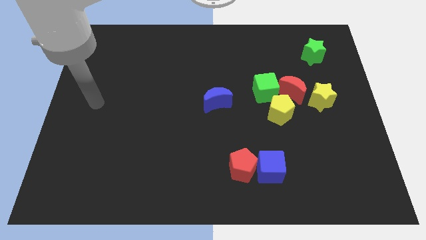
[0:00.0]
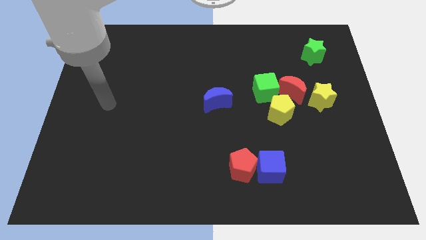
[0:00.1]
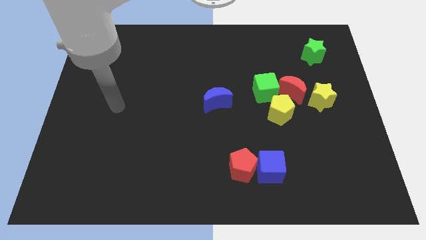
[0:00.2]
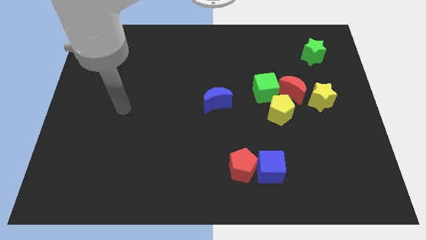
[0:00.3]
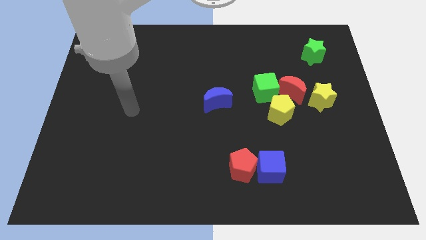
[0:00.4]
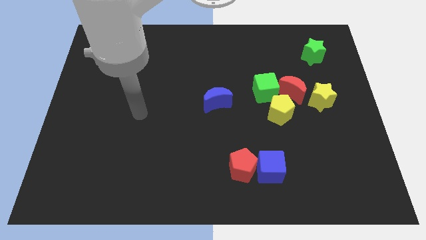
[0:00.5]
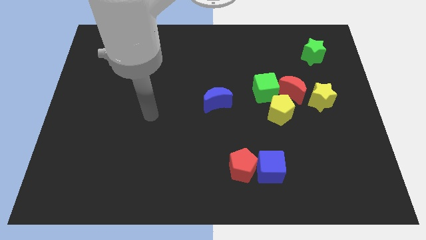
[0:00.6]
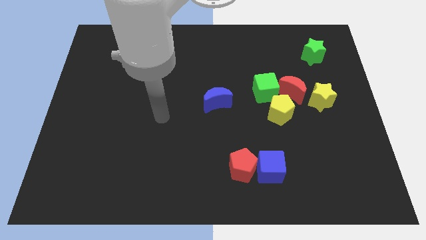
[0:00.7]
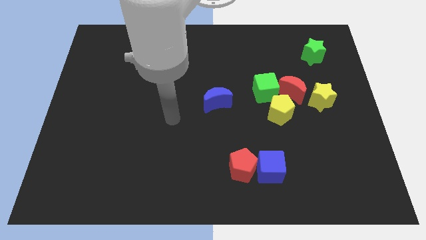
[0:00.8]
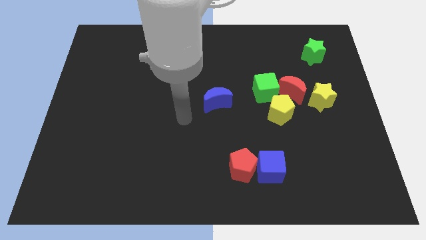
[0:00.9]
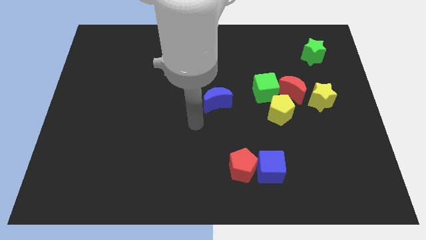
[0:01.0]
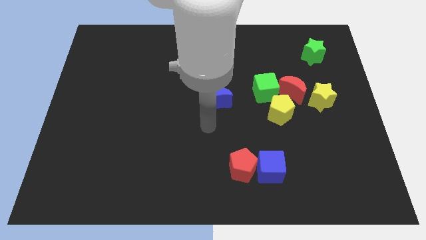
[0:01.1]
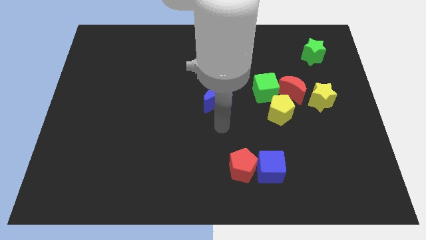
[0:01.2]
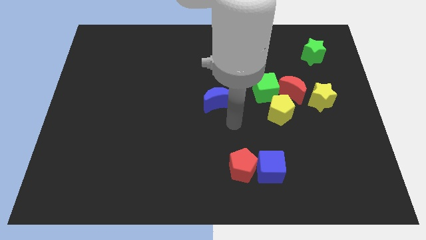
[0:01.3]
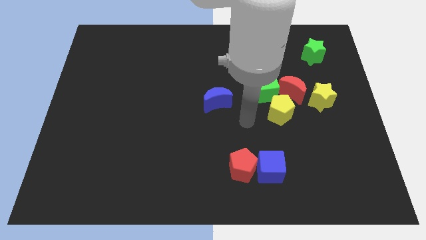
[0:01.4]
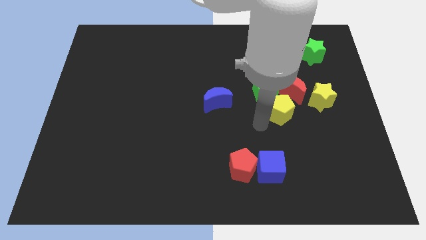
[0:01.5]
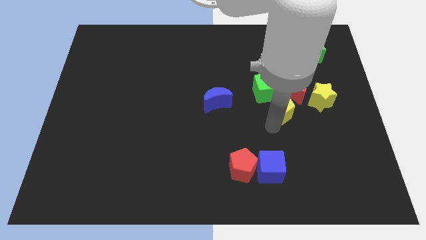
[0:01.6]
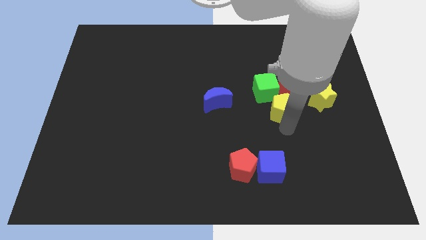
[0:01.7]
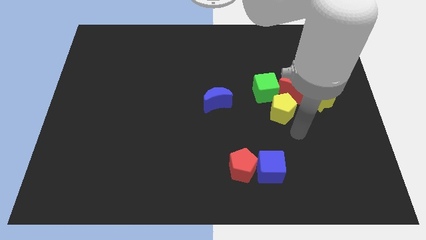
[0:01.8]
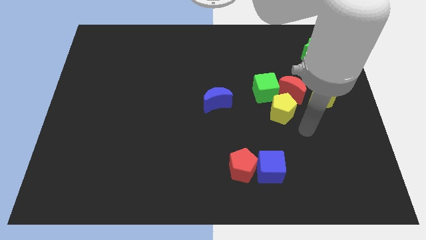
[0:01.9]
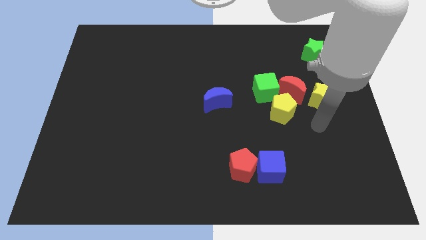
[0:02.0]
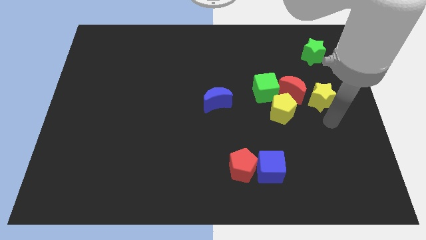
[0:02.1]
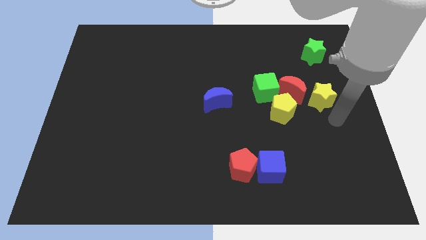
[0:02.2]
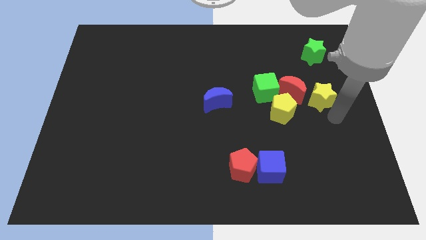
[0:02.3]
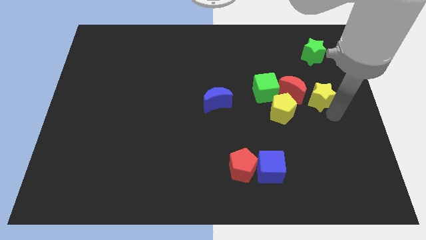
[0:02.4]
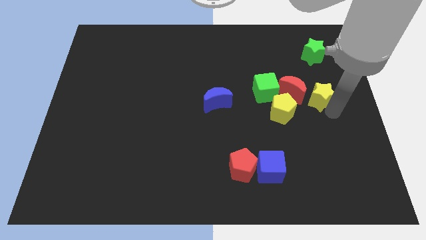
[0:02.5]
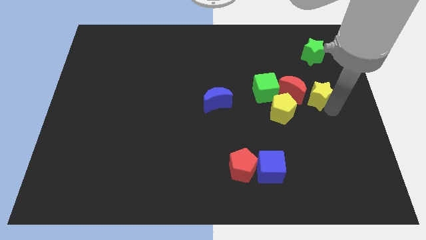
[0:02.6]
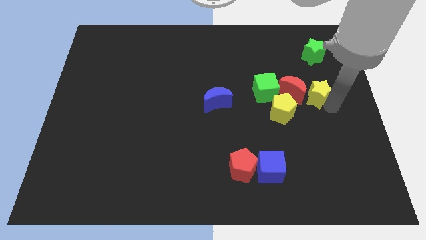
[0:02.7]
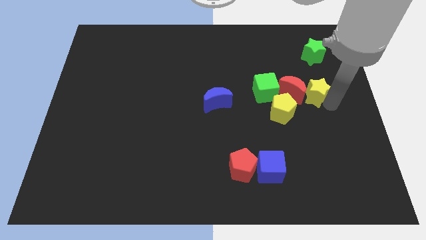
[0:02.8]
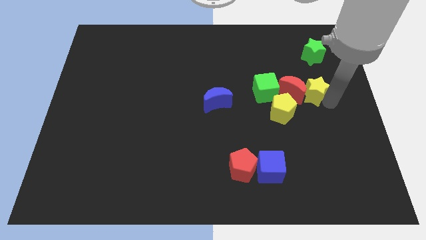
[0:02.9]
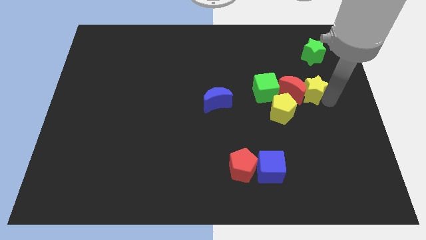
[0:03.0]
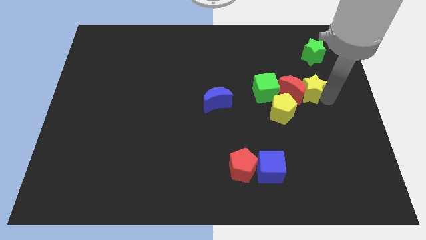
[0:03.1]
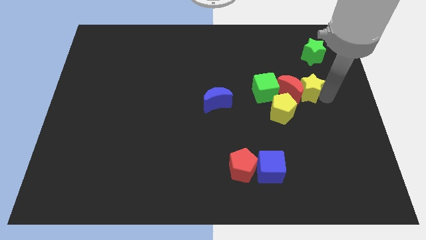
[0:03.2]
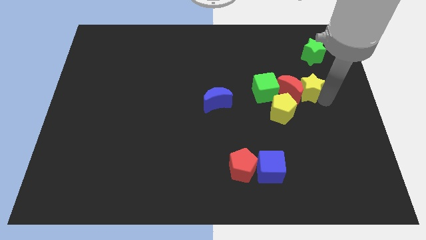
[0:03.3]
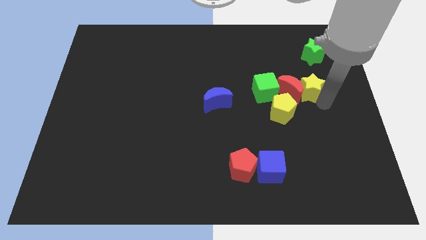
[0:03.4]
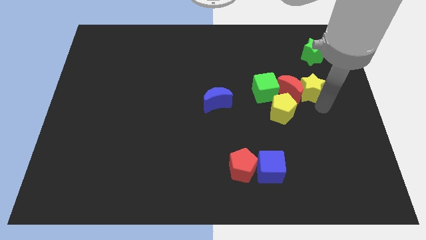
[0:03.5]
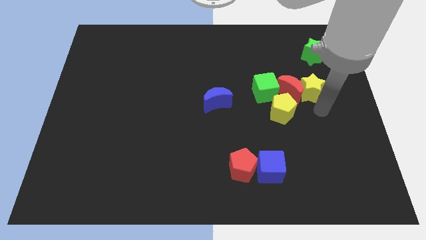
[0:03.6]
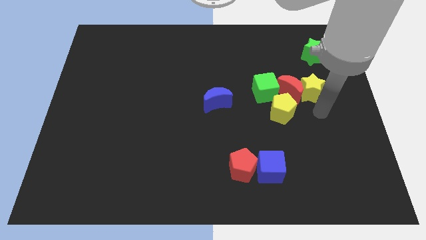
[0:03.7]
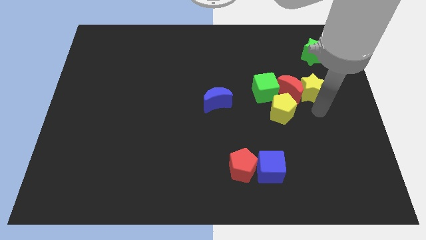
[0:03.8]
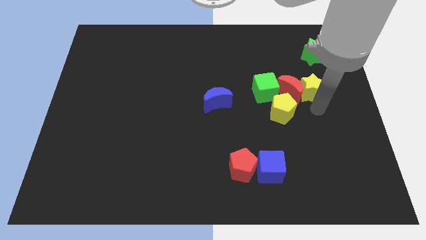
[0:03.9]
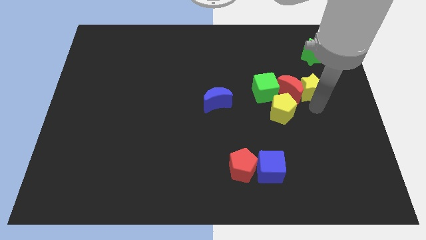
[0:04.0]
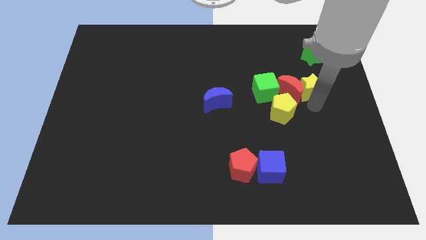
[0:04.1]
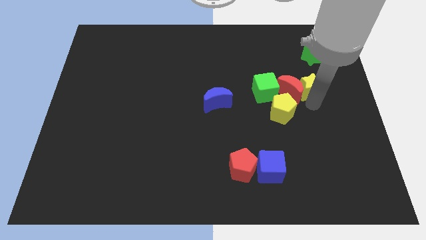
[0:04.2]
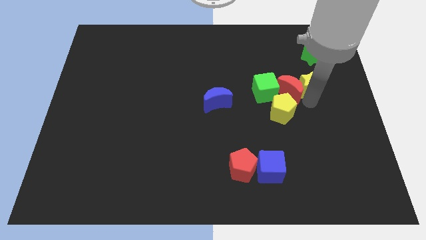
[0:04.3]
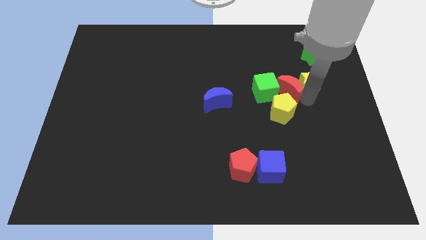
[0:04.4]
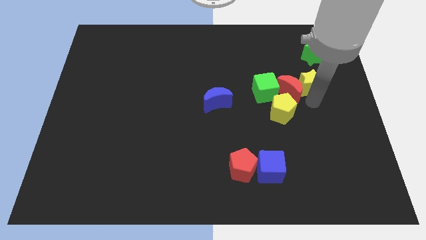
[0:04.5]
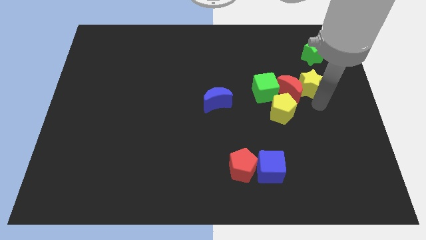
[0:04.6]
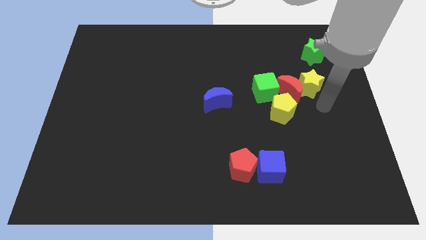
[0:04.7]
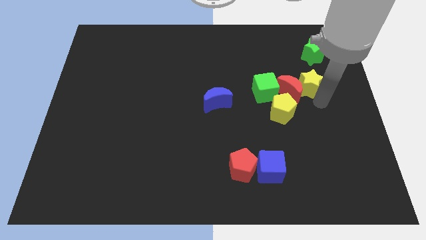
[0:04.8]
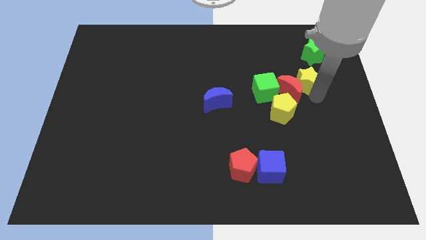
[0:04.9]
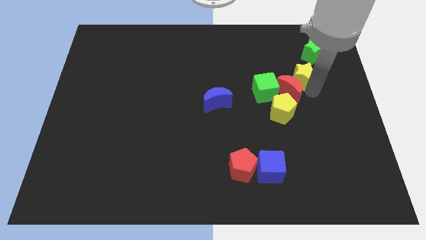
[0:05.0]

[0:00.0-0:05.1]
put the yellow star to the bottom left side of the green star

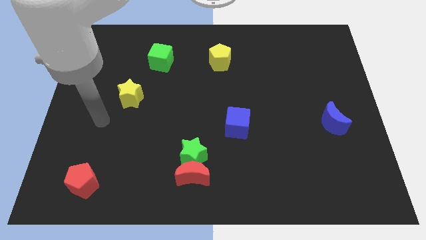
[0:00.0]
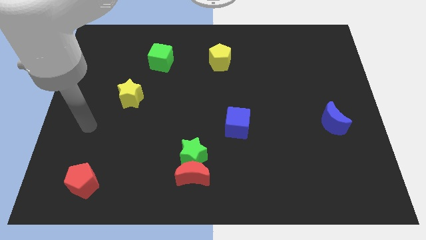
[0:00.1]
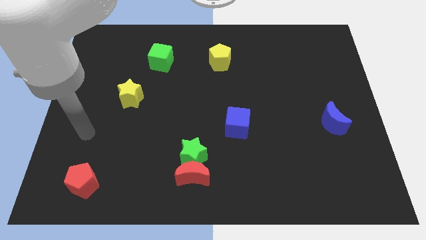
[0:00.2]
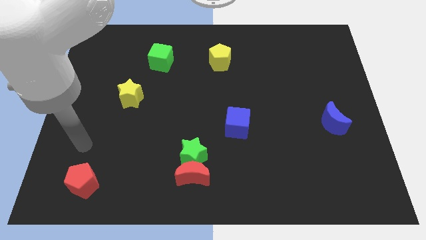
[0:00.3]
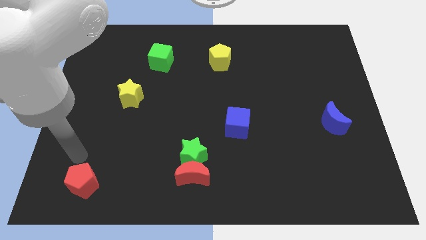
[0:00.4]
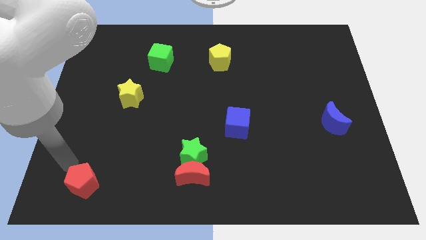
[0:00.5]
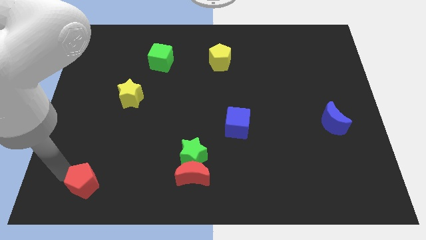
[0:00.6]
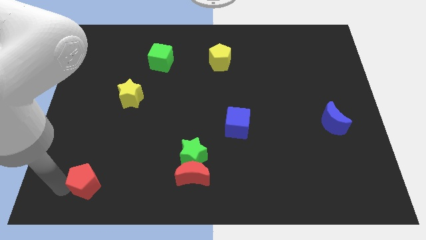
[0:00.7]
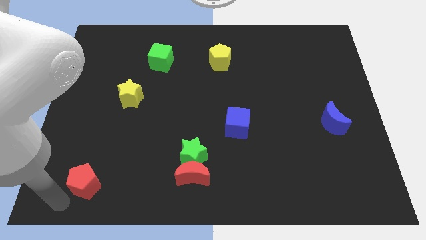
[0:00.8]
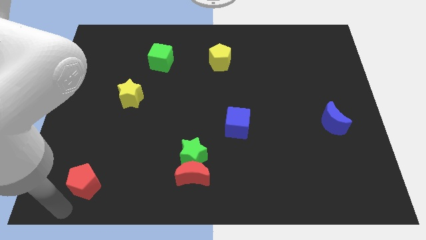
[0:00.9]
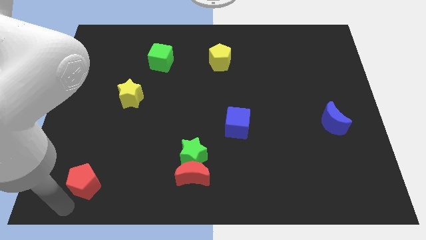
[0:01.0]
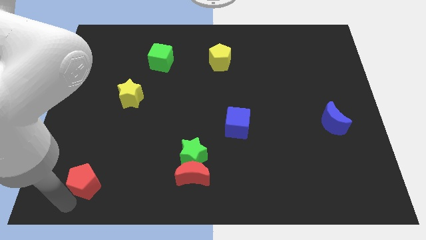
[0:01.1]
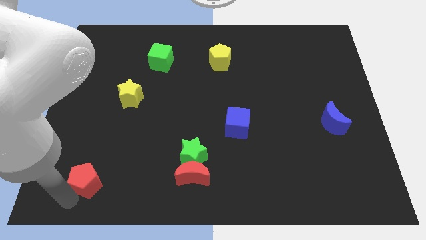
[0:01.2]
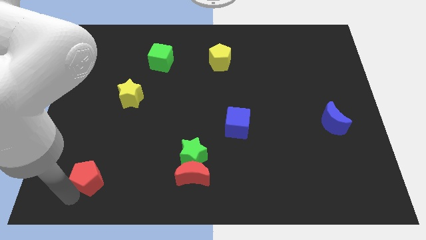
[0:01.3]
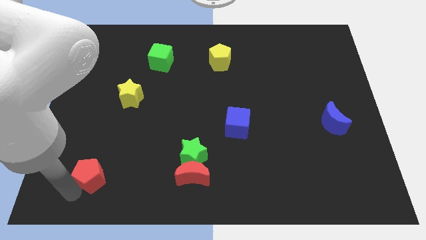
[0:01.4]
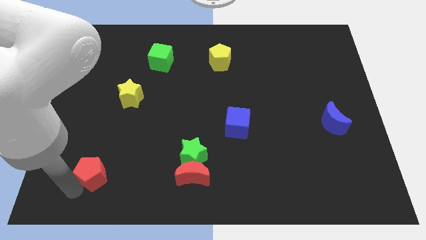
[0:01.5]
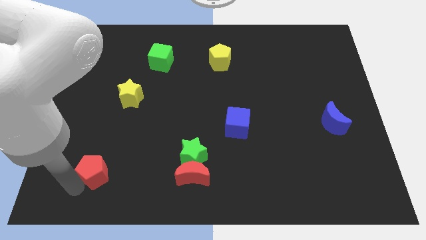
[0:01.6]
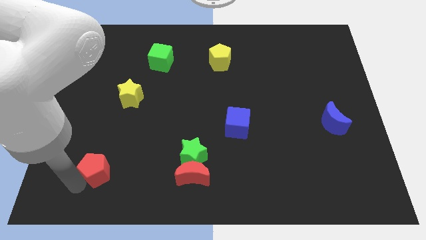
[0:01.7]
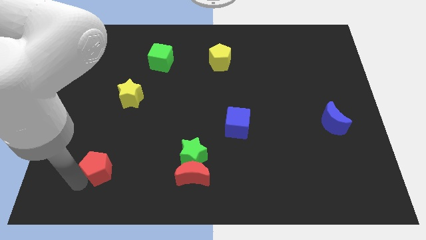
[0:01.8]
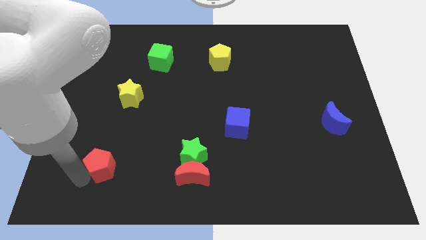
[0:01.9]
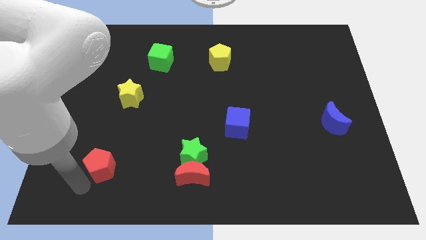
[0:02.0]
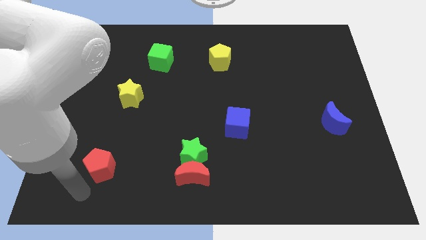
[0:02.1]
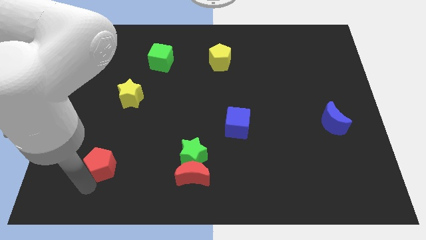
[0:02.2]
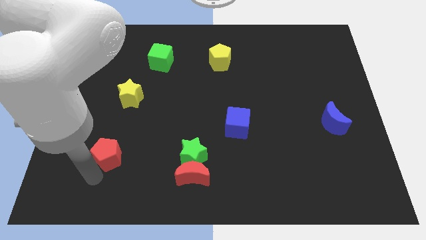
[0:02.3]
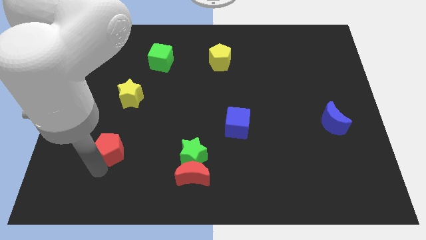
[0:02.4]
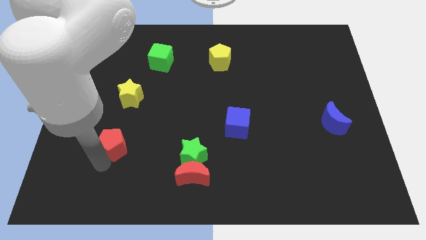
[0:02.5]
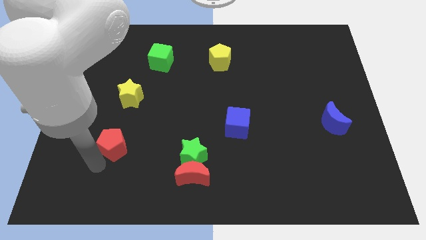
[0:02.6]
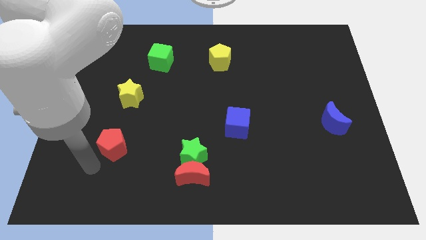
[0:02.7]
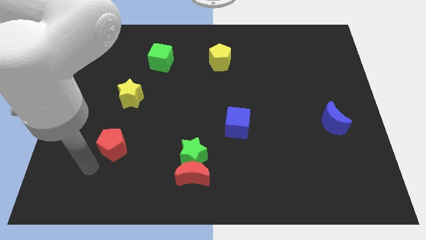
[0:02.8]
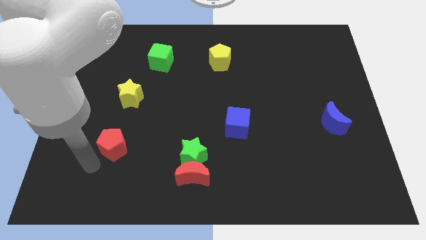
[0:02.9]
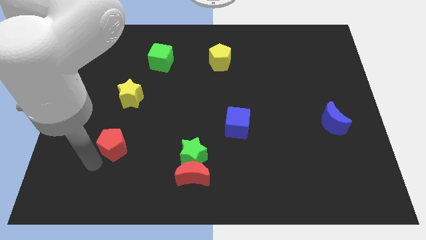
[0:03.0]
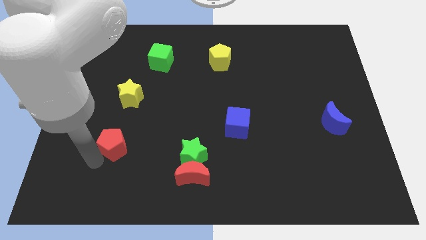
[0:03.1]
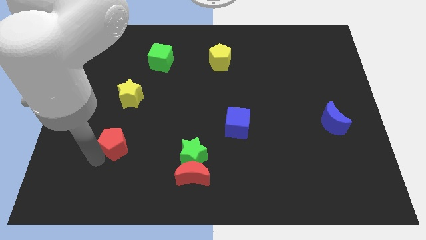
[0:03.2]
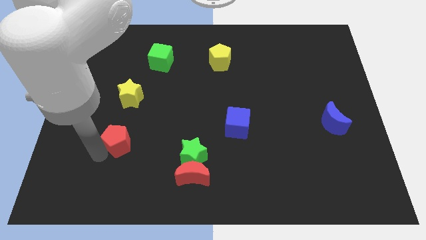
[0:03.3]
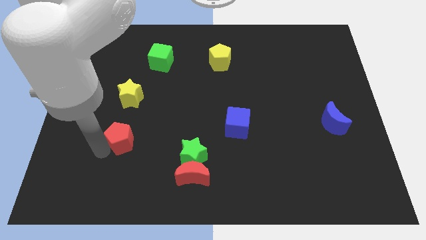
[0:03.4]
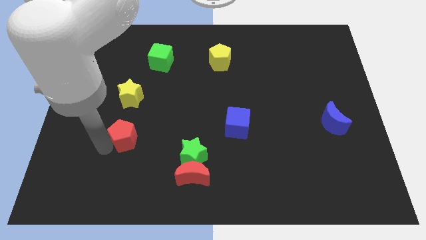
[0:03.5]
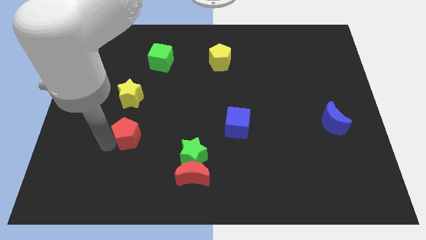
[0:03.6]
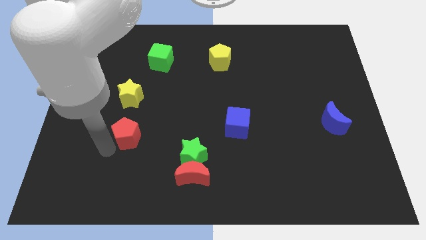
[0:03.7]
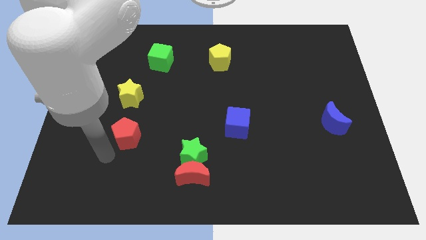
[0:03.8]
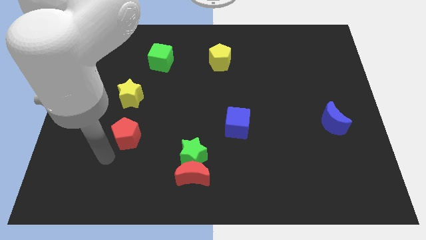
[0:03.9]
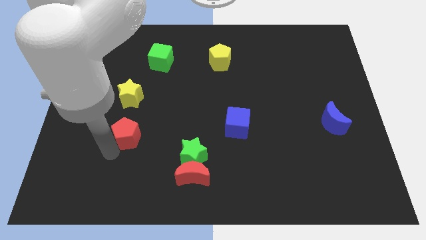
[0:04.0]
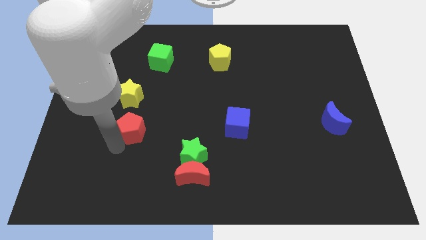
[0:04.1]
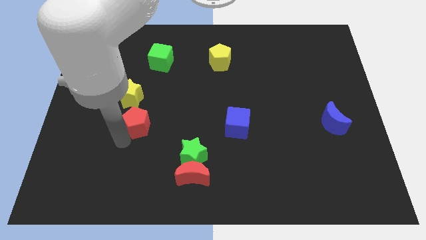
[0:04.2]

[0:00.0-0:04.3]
push the red pentagon diagonally down and to the right of the yellow star
